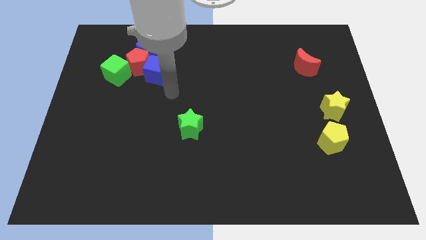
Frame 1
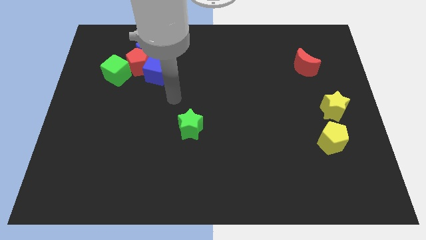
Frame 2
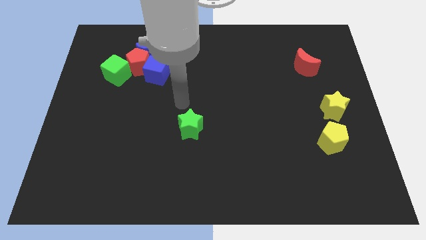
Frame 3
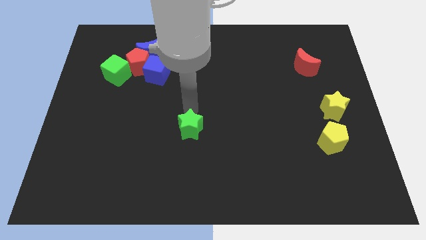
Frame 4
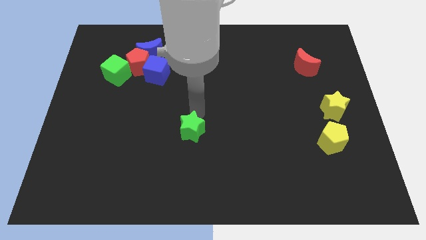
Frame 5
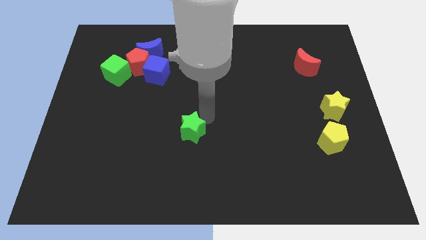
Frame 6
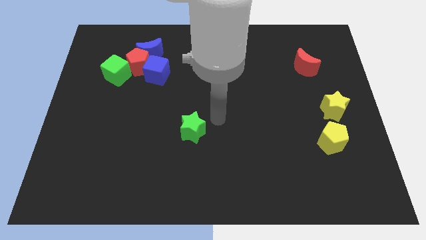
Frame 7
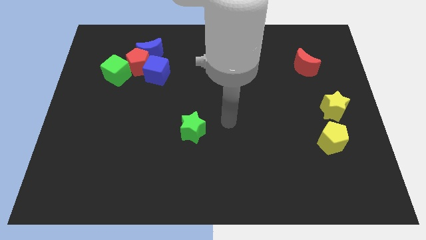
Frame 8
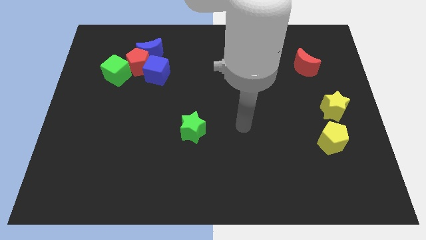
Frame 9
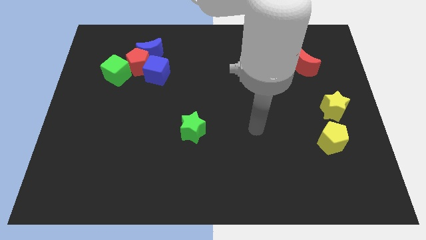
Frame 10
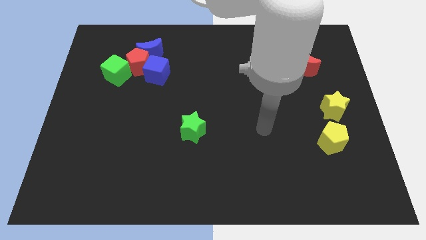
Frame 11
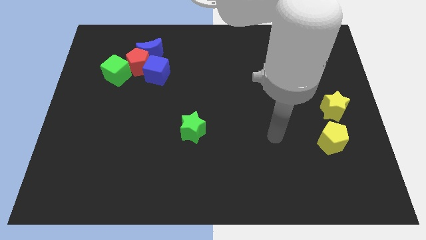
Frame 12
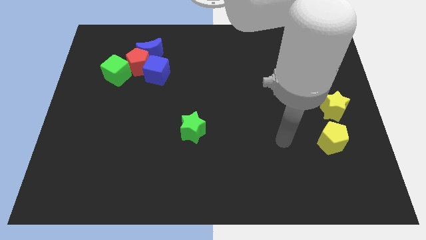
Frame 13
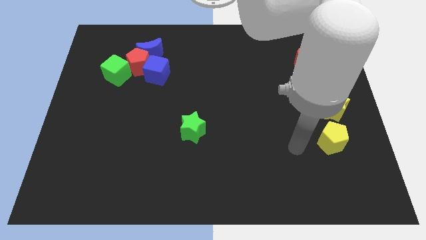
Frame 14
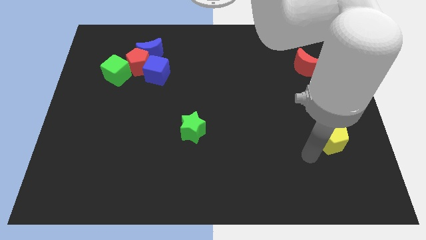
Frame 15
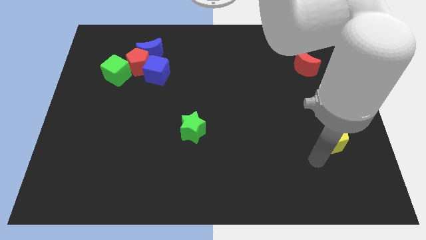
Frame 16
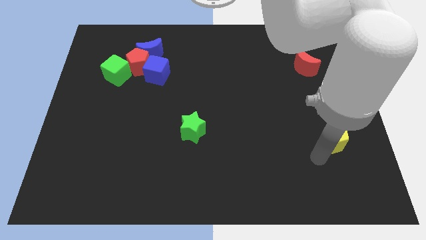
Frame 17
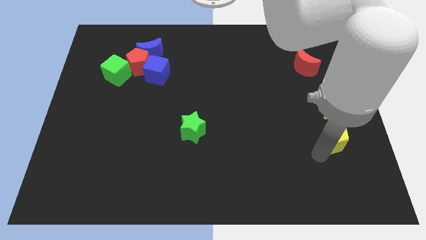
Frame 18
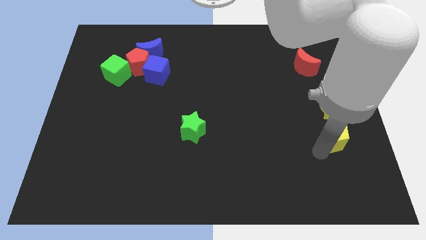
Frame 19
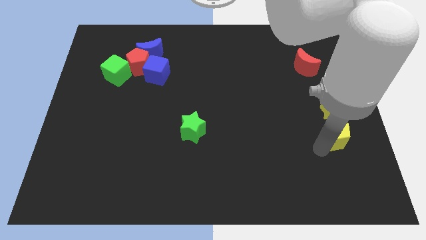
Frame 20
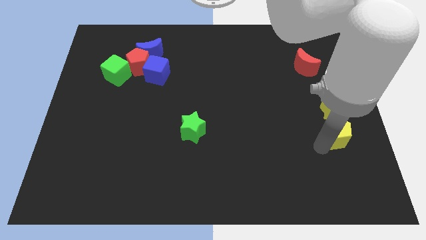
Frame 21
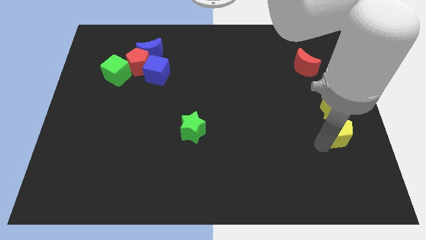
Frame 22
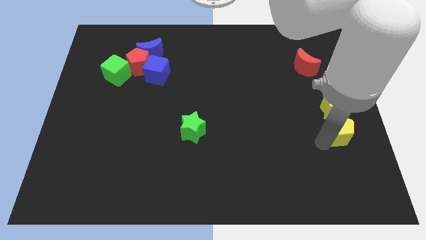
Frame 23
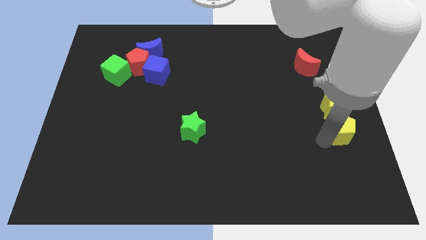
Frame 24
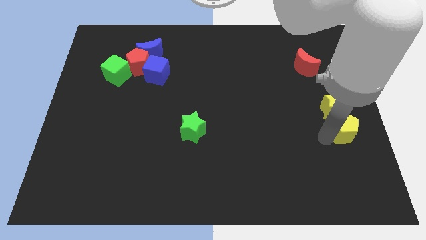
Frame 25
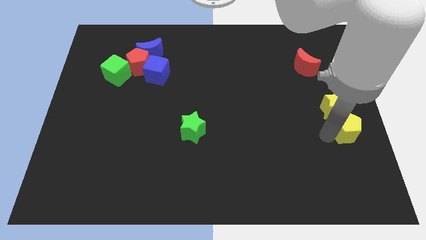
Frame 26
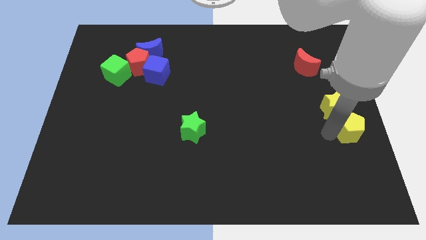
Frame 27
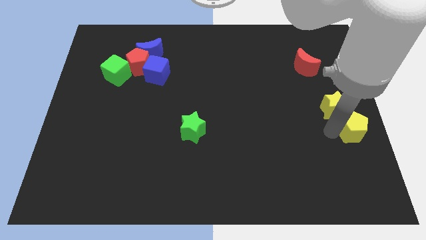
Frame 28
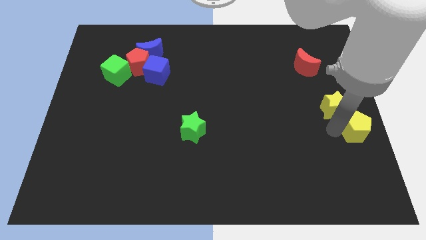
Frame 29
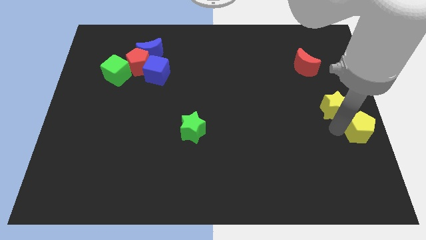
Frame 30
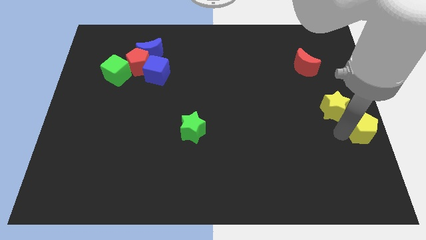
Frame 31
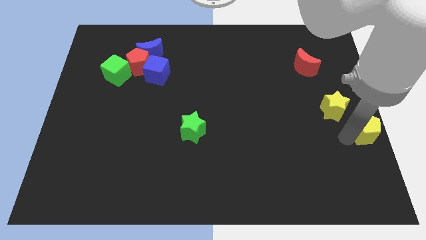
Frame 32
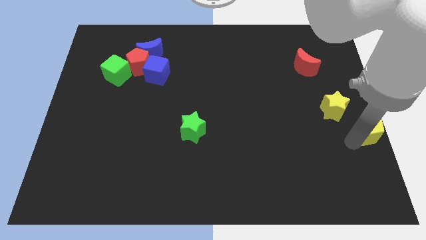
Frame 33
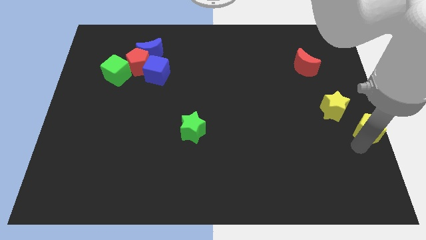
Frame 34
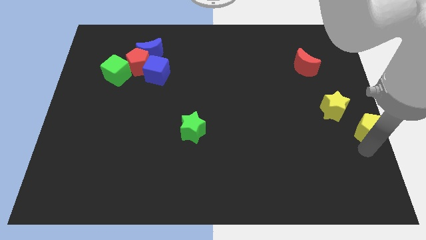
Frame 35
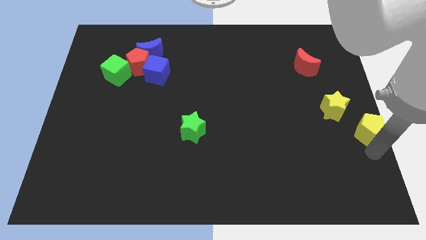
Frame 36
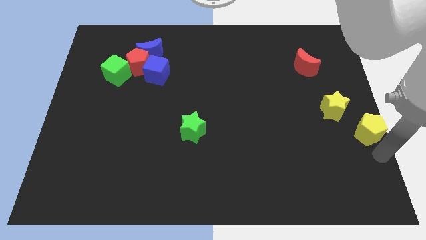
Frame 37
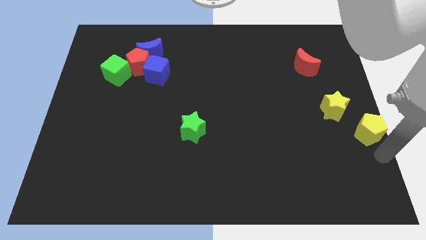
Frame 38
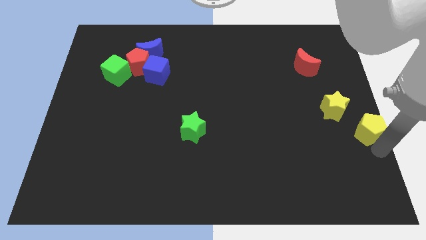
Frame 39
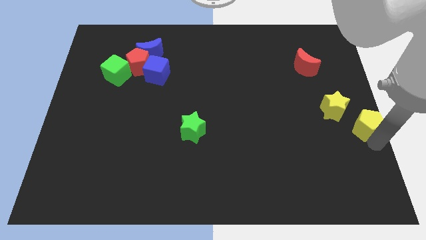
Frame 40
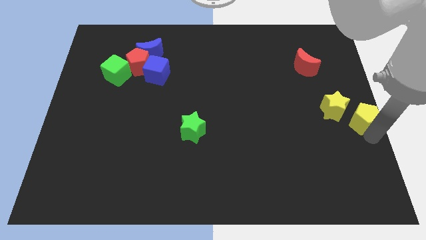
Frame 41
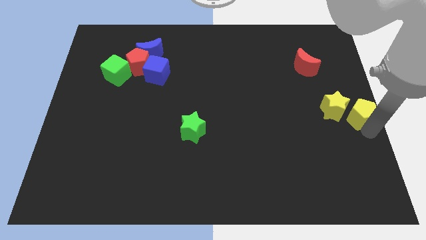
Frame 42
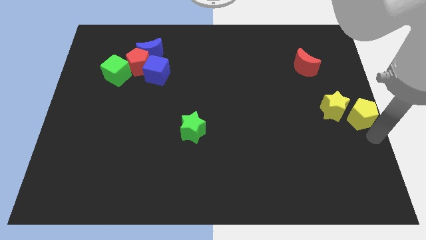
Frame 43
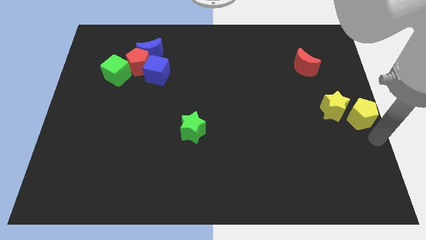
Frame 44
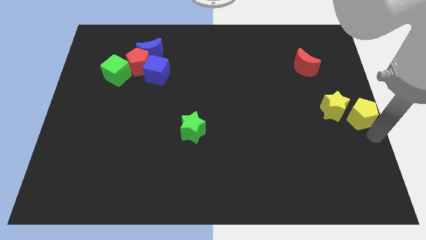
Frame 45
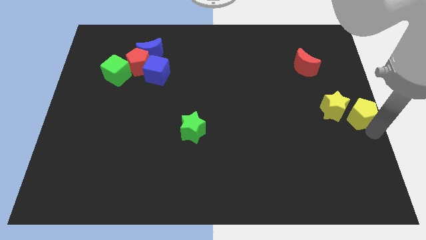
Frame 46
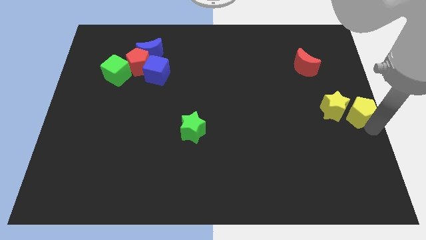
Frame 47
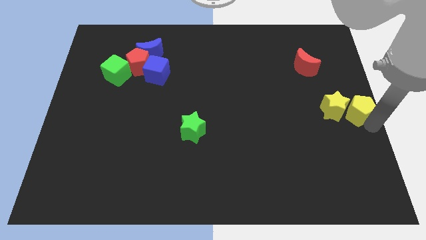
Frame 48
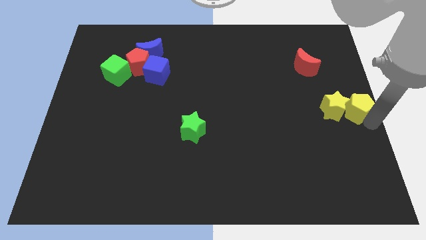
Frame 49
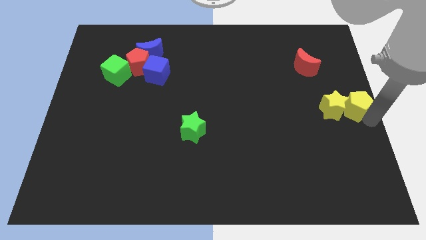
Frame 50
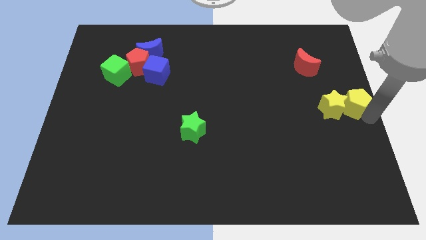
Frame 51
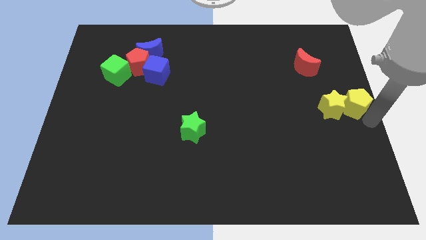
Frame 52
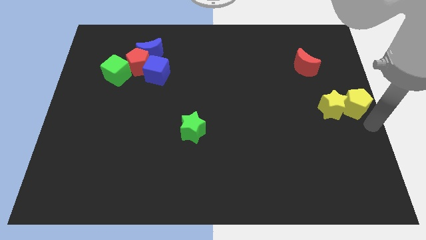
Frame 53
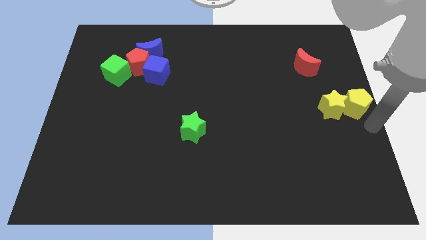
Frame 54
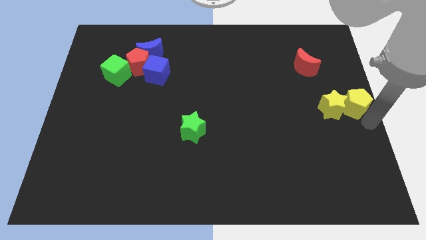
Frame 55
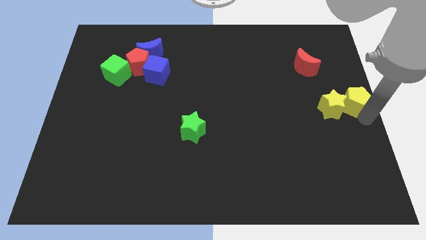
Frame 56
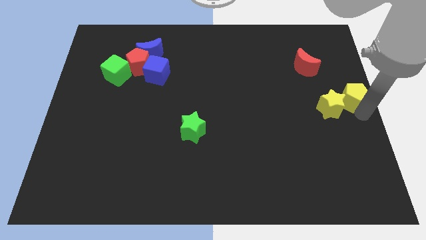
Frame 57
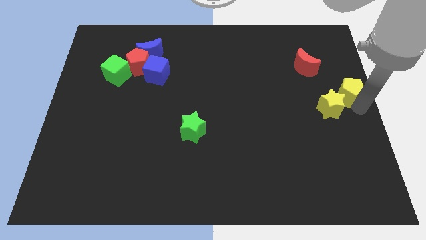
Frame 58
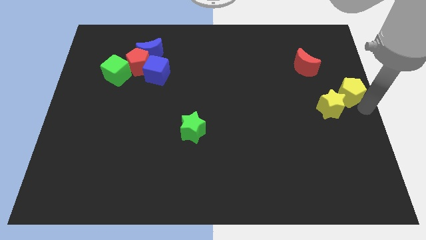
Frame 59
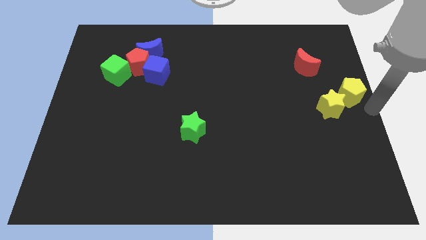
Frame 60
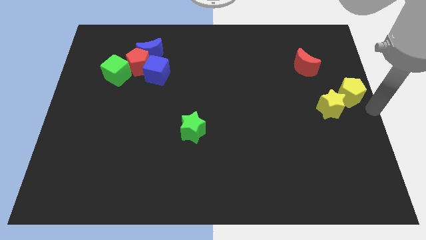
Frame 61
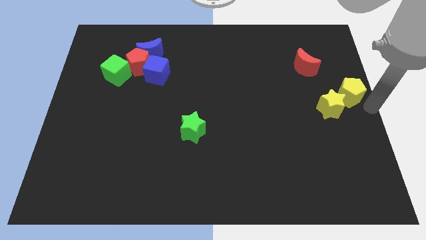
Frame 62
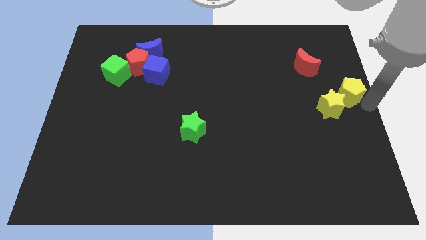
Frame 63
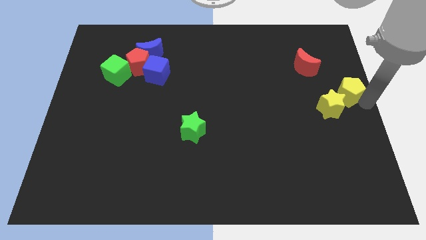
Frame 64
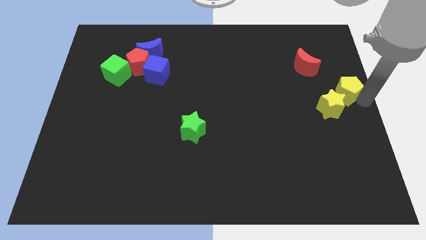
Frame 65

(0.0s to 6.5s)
slide the yellow pentagon diagonally down and to the right of the red moon
